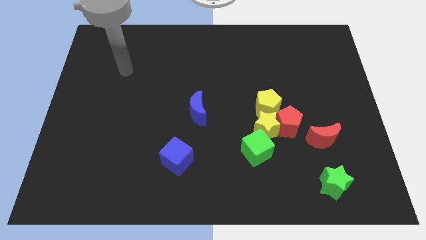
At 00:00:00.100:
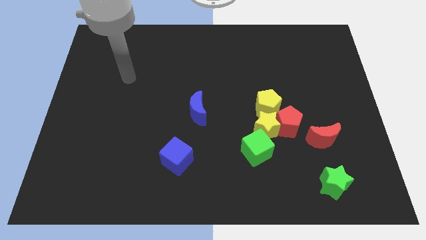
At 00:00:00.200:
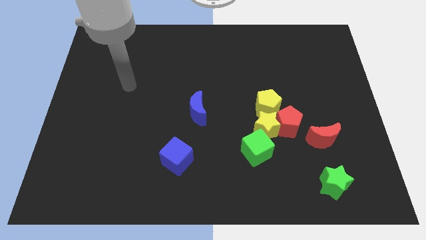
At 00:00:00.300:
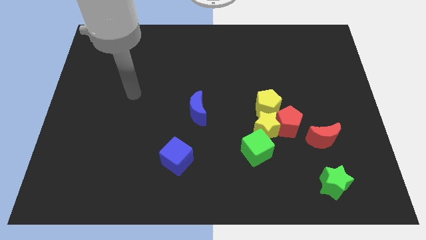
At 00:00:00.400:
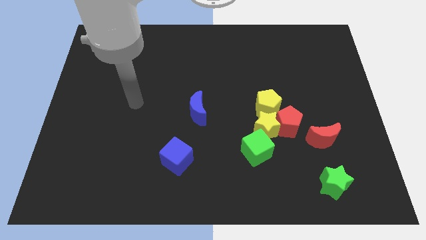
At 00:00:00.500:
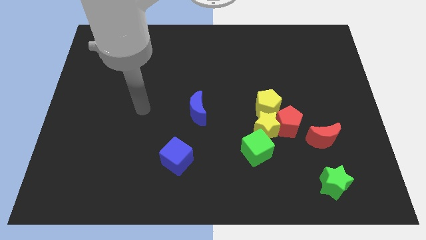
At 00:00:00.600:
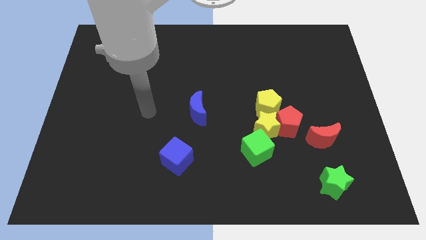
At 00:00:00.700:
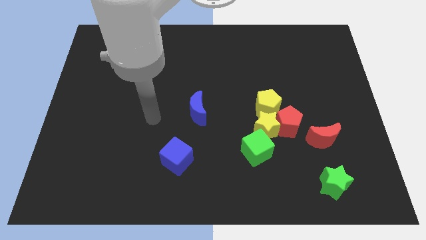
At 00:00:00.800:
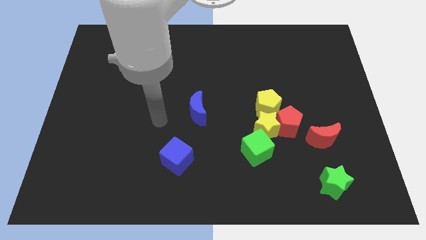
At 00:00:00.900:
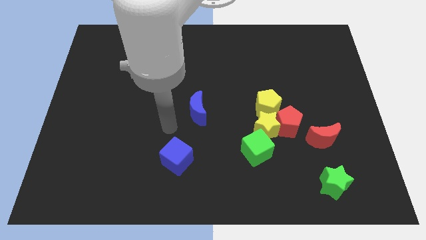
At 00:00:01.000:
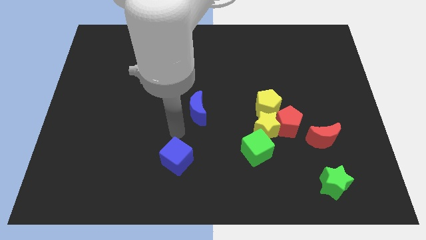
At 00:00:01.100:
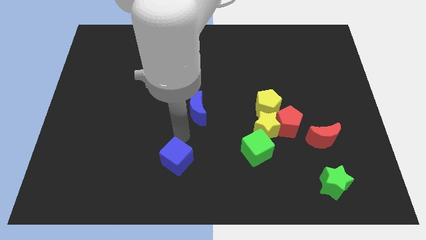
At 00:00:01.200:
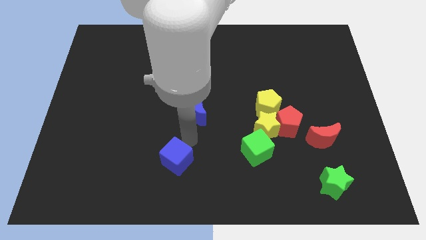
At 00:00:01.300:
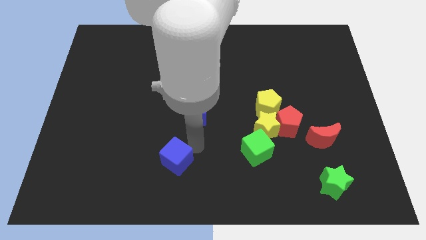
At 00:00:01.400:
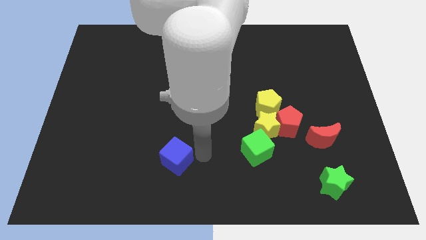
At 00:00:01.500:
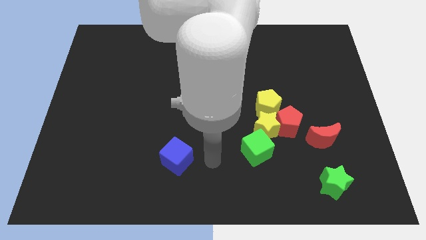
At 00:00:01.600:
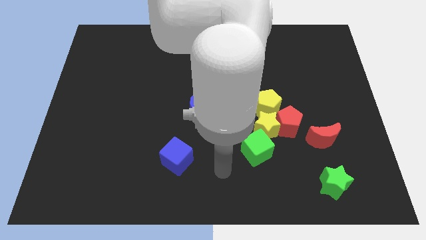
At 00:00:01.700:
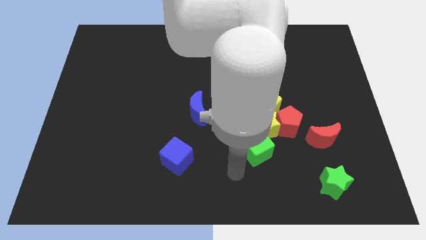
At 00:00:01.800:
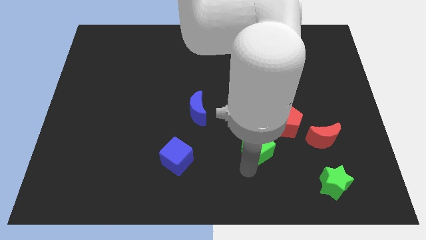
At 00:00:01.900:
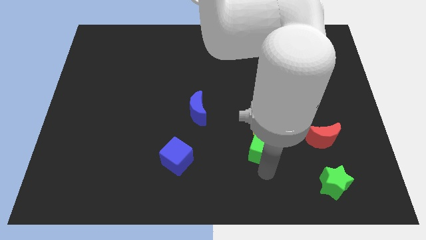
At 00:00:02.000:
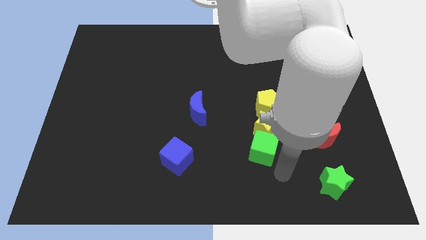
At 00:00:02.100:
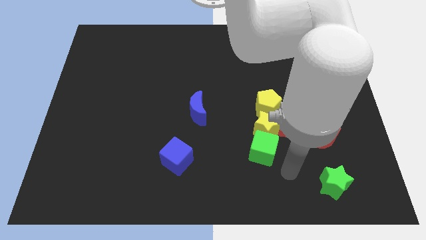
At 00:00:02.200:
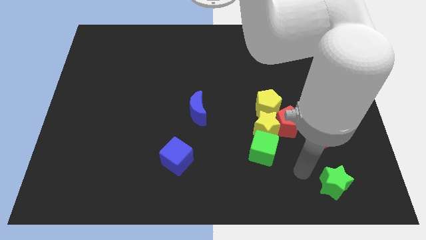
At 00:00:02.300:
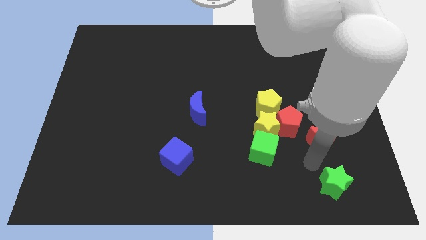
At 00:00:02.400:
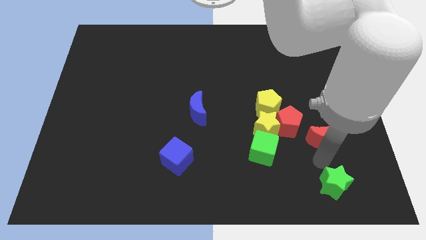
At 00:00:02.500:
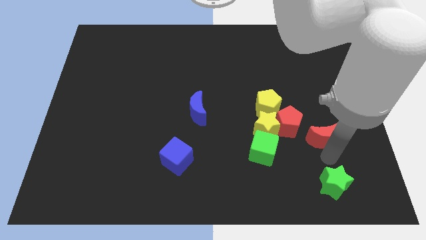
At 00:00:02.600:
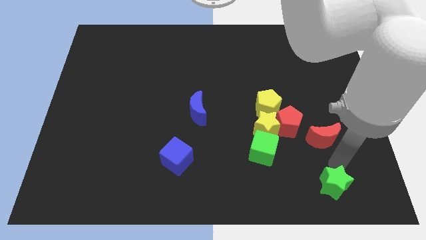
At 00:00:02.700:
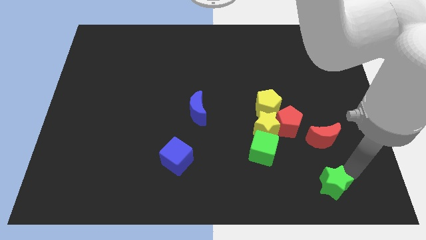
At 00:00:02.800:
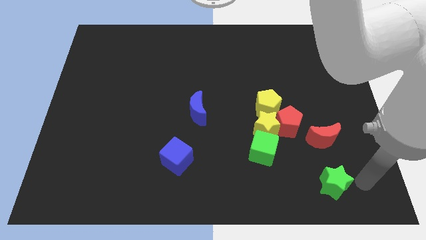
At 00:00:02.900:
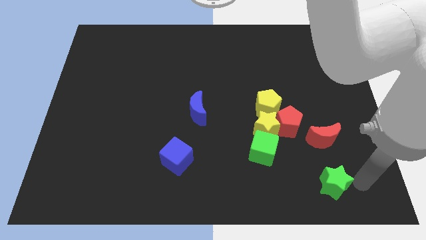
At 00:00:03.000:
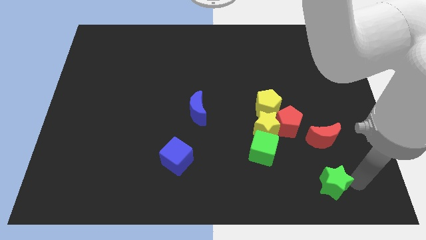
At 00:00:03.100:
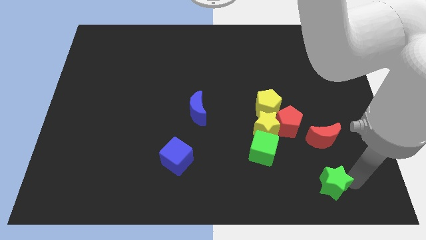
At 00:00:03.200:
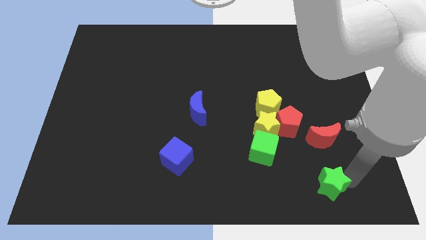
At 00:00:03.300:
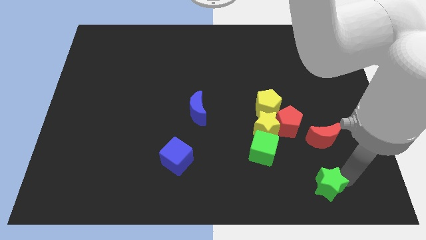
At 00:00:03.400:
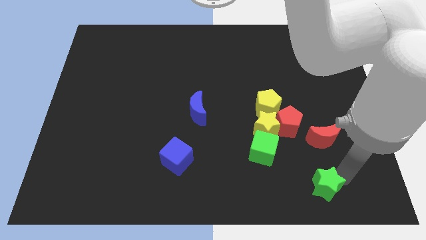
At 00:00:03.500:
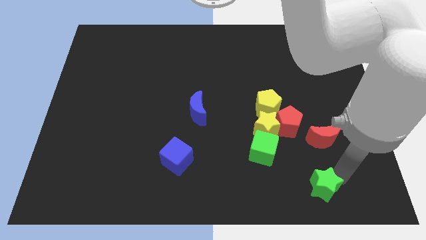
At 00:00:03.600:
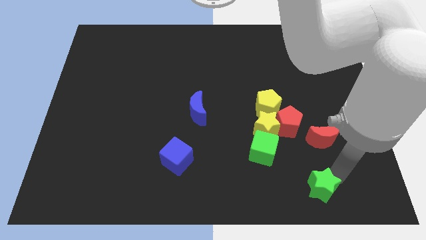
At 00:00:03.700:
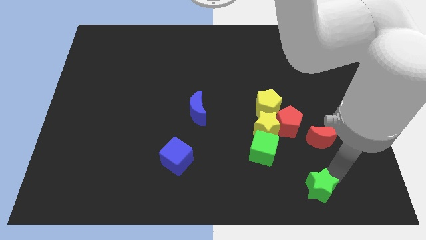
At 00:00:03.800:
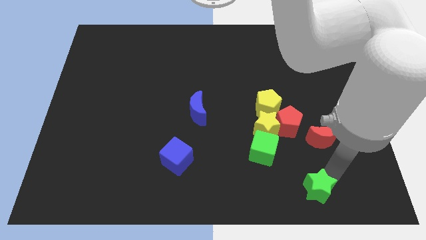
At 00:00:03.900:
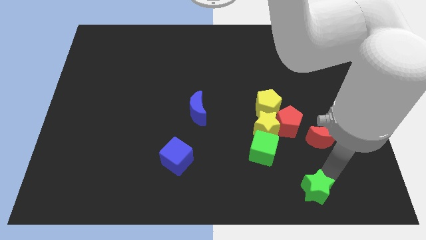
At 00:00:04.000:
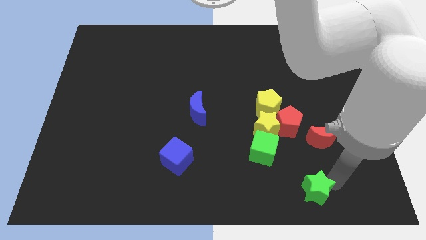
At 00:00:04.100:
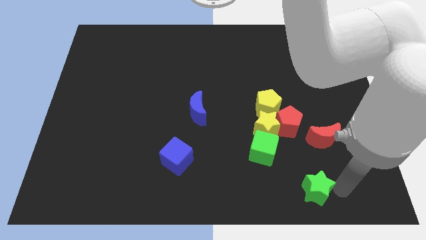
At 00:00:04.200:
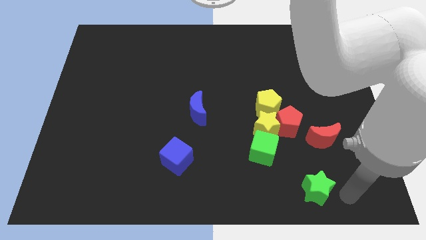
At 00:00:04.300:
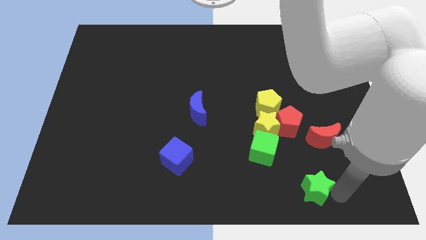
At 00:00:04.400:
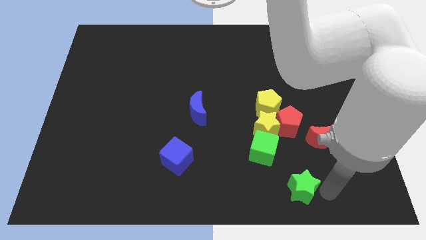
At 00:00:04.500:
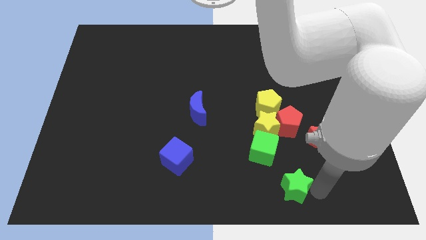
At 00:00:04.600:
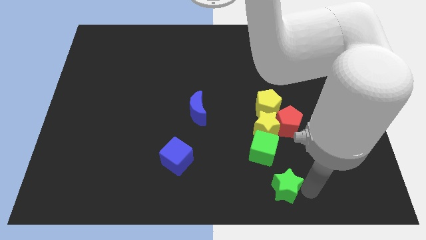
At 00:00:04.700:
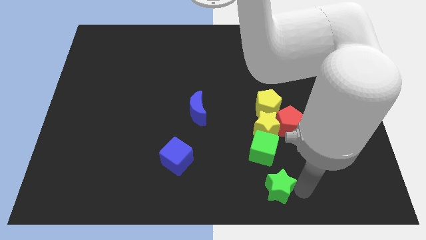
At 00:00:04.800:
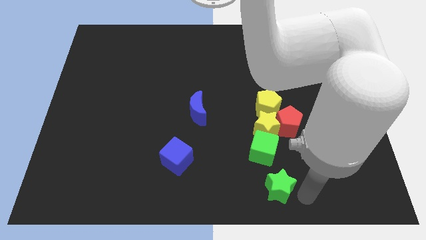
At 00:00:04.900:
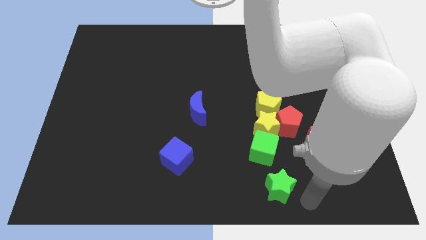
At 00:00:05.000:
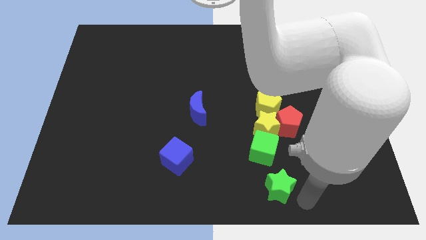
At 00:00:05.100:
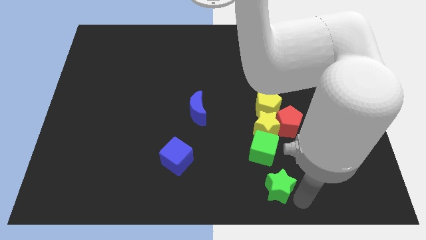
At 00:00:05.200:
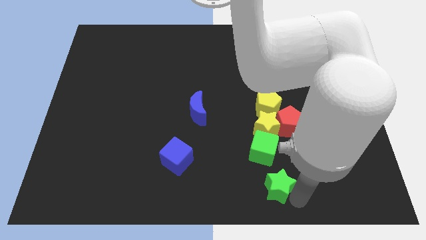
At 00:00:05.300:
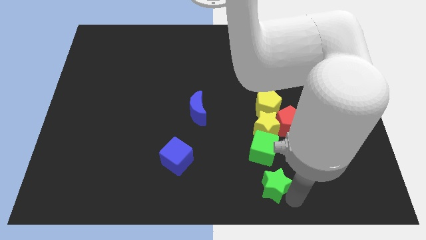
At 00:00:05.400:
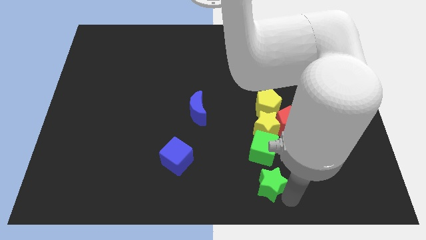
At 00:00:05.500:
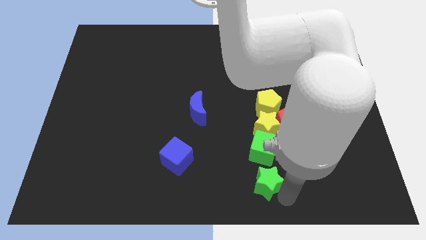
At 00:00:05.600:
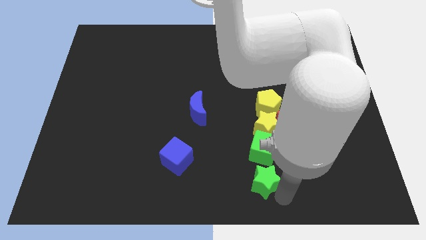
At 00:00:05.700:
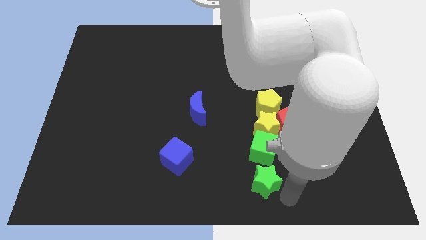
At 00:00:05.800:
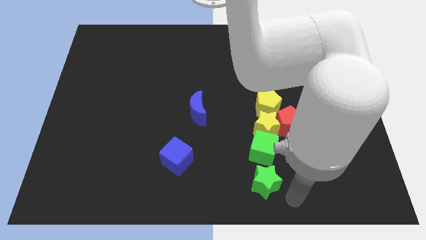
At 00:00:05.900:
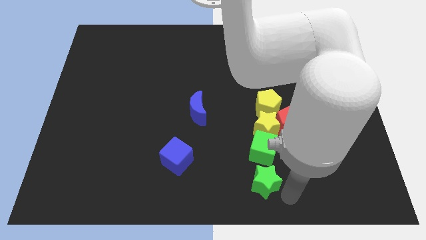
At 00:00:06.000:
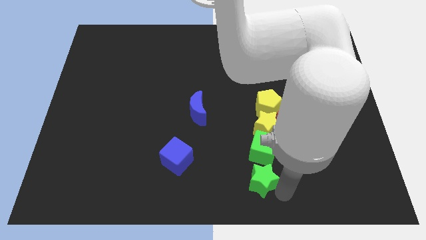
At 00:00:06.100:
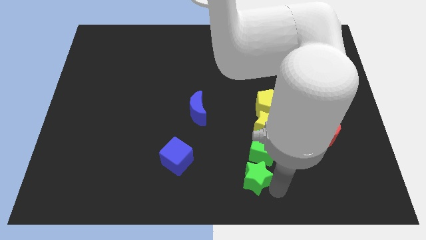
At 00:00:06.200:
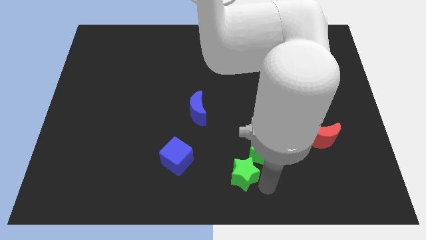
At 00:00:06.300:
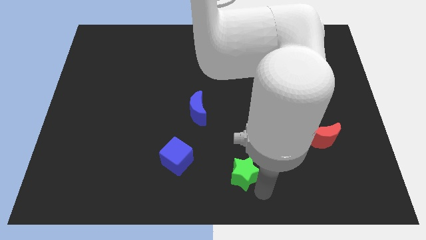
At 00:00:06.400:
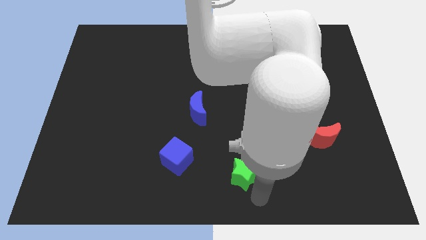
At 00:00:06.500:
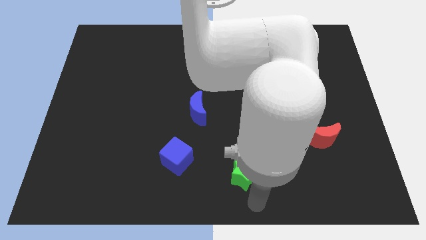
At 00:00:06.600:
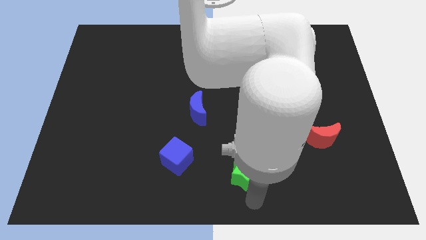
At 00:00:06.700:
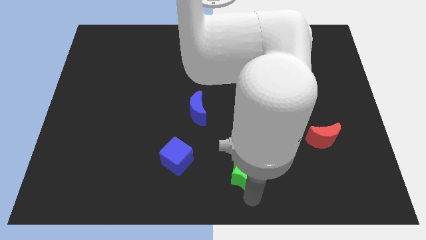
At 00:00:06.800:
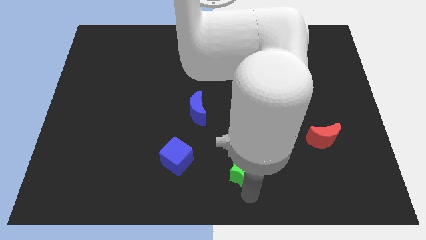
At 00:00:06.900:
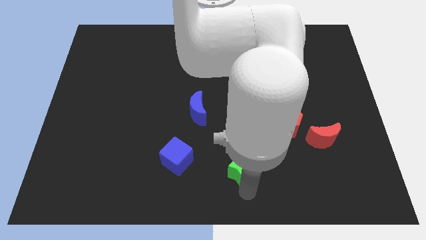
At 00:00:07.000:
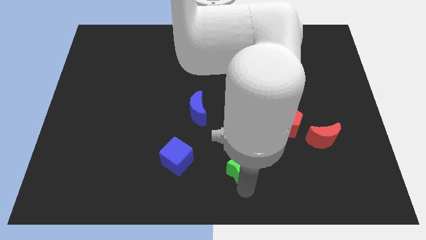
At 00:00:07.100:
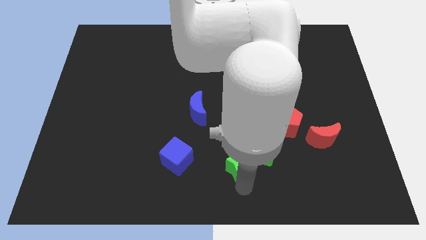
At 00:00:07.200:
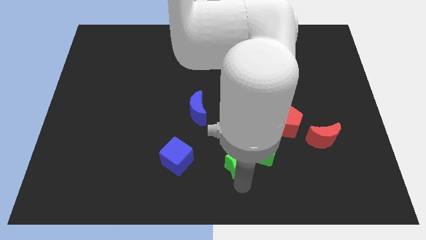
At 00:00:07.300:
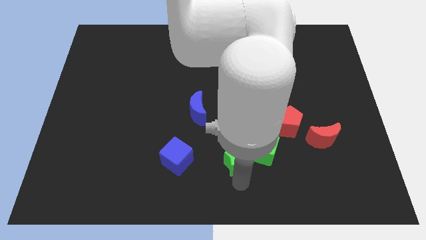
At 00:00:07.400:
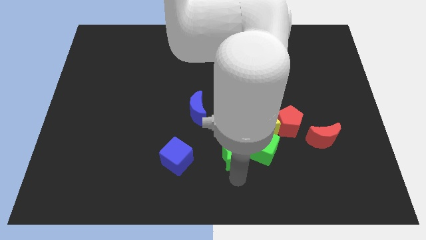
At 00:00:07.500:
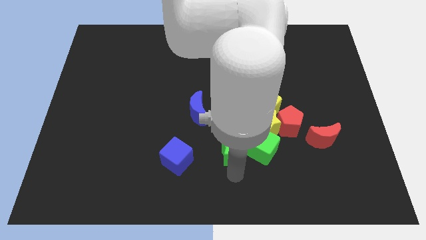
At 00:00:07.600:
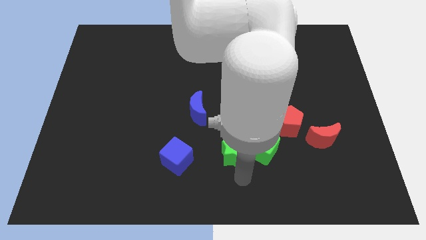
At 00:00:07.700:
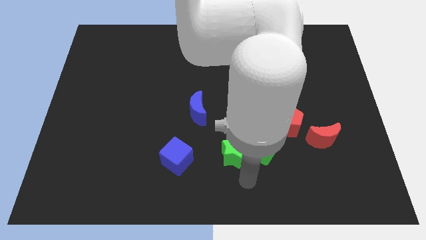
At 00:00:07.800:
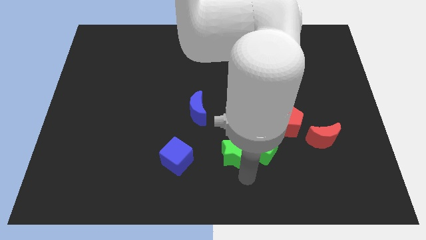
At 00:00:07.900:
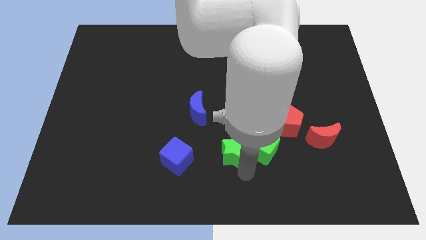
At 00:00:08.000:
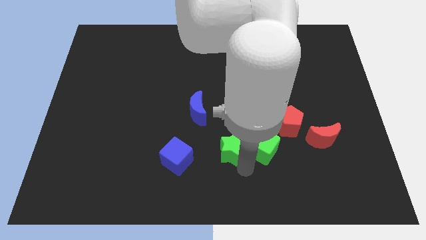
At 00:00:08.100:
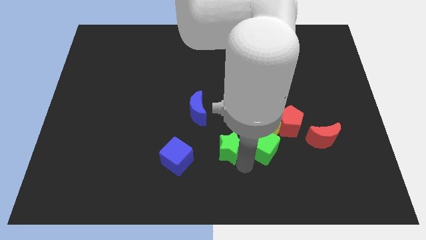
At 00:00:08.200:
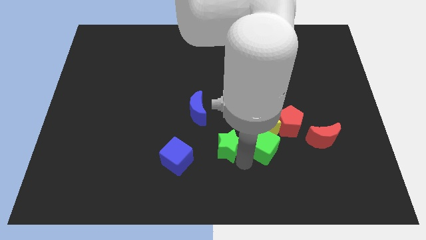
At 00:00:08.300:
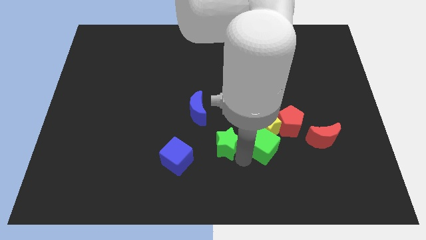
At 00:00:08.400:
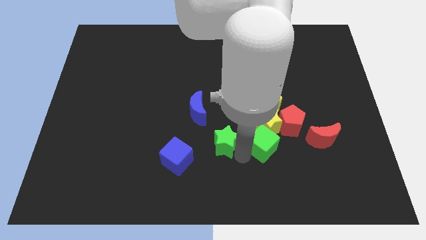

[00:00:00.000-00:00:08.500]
slide the green star to the middle of the board
